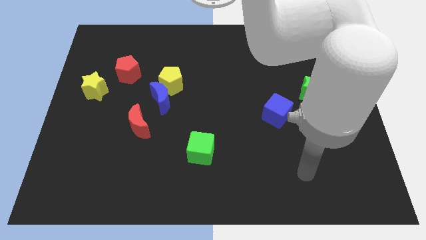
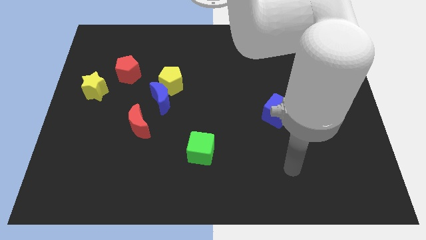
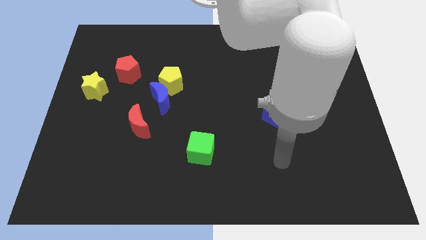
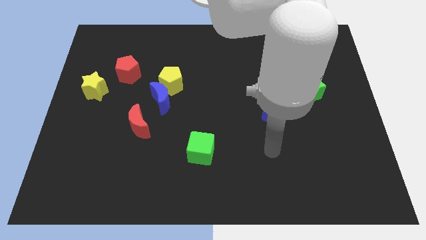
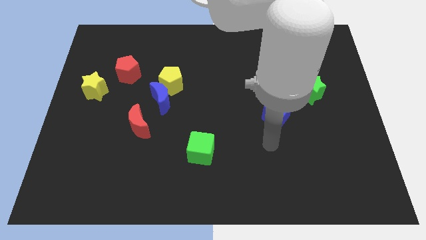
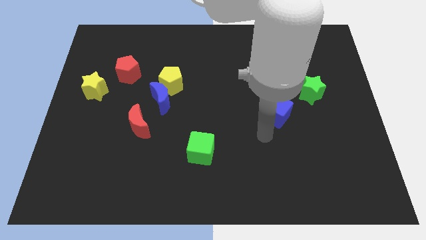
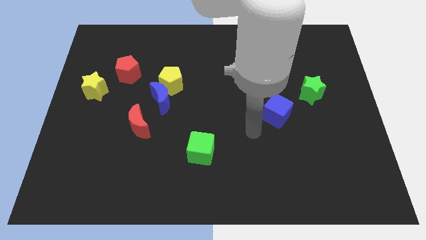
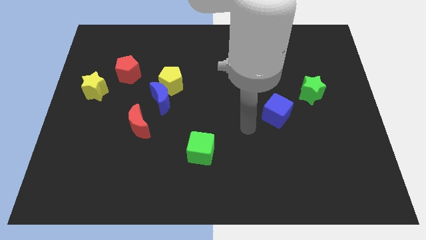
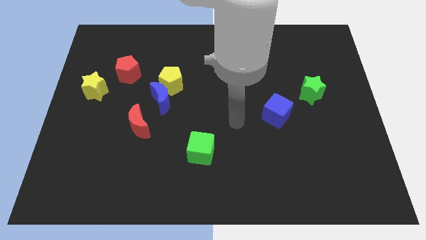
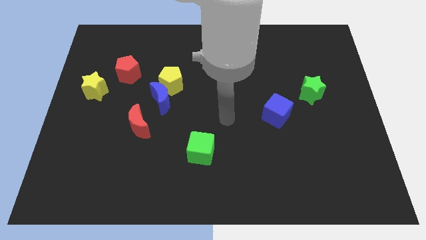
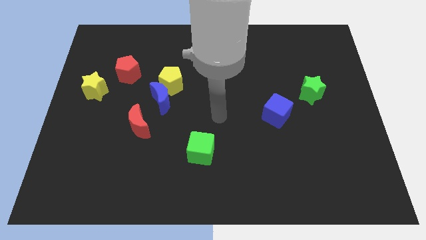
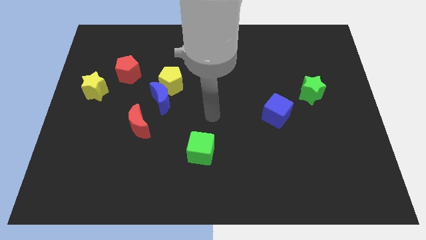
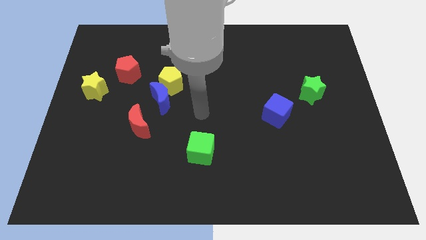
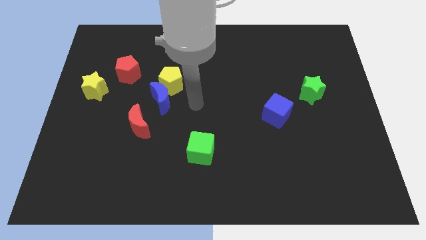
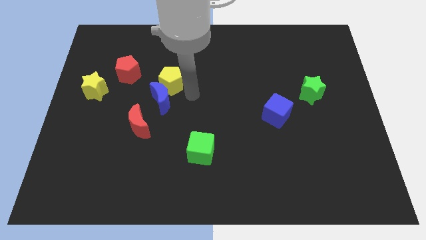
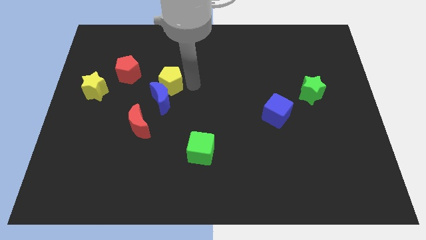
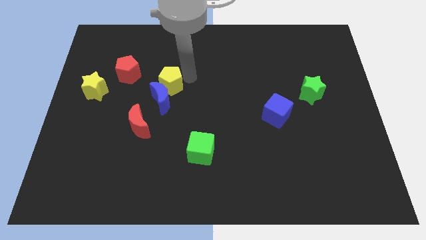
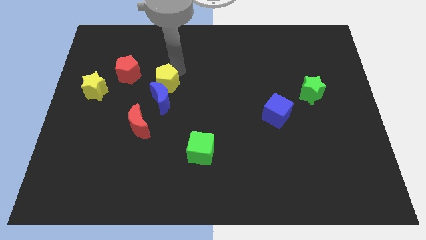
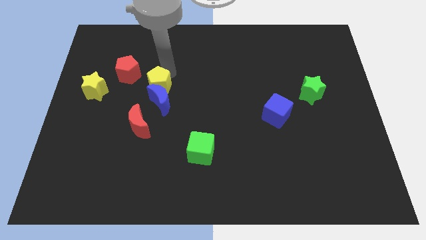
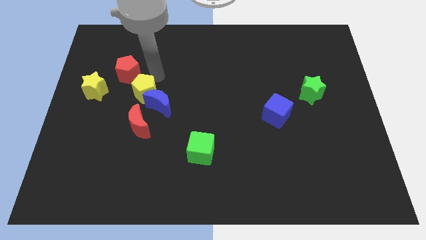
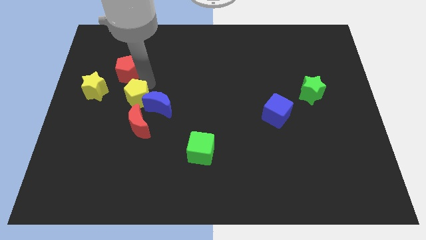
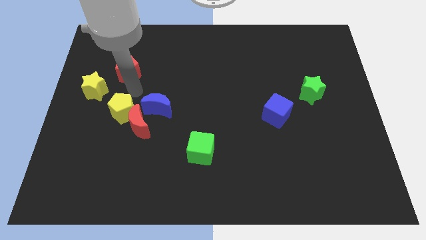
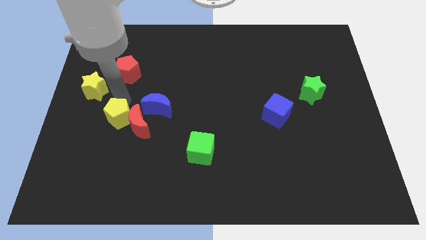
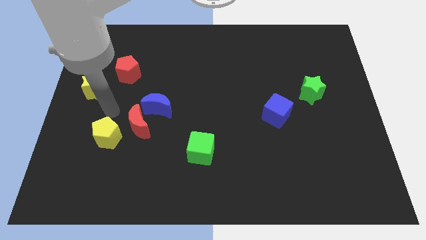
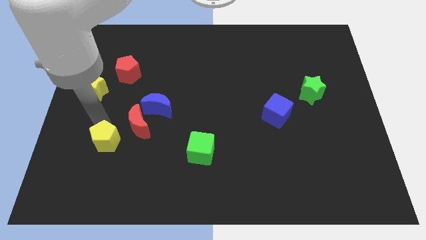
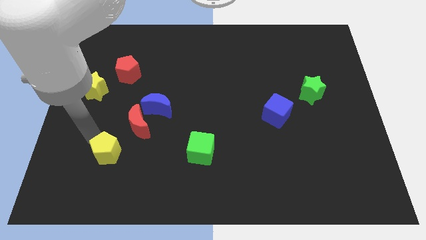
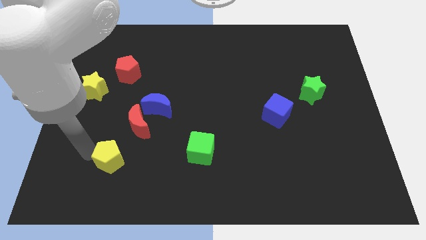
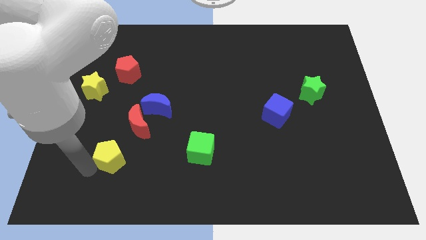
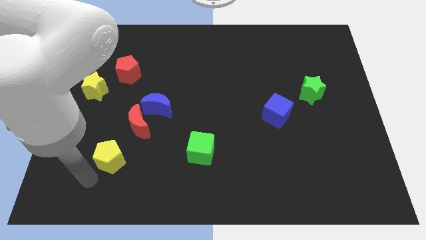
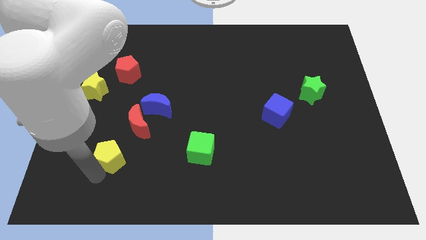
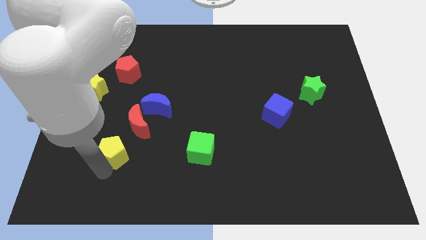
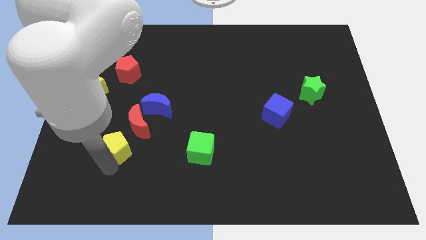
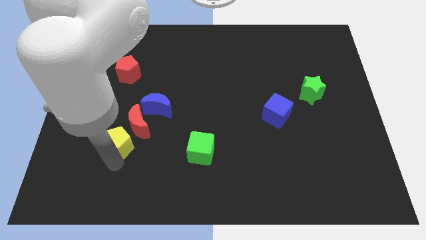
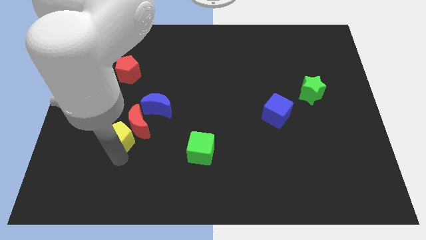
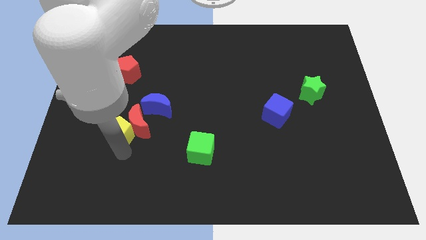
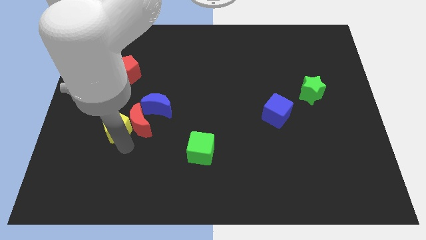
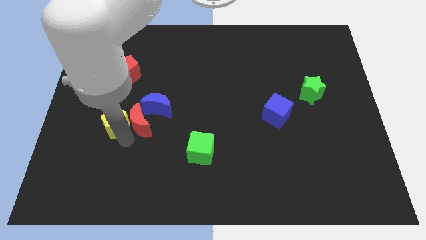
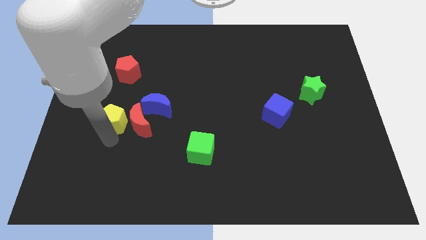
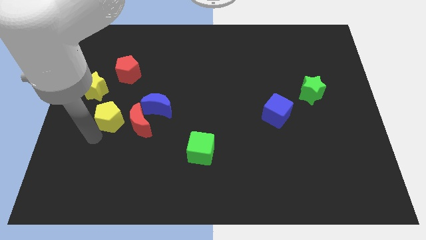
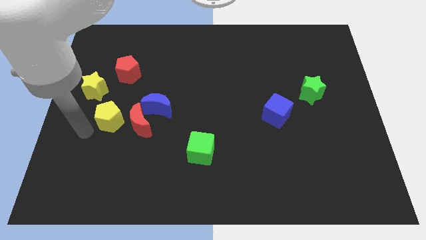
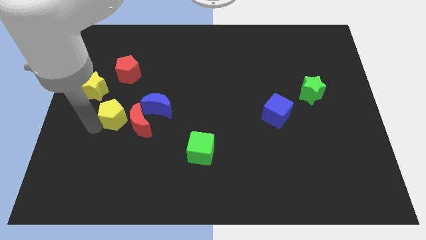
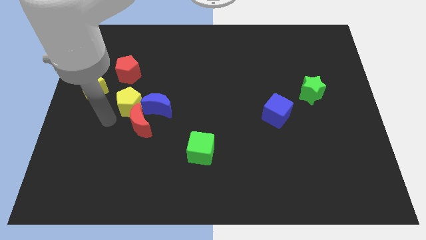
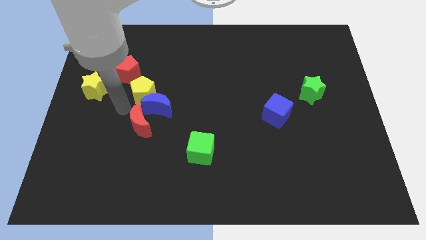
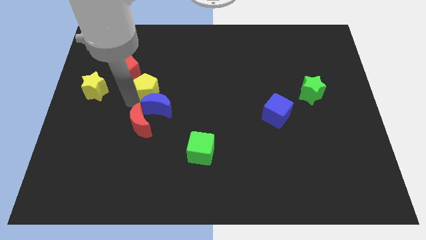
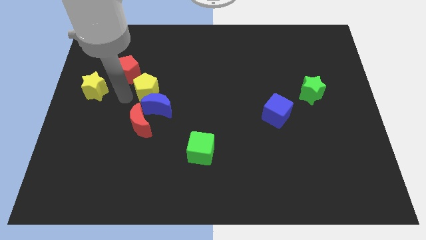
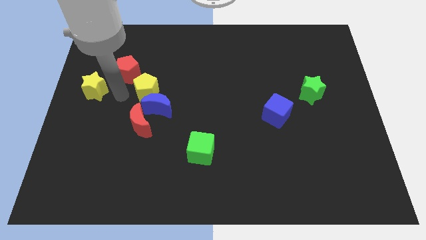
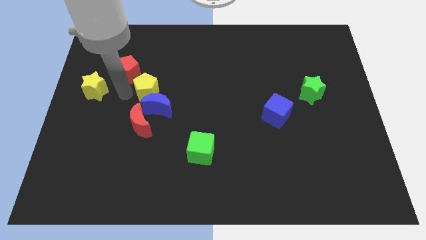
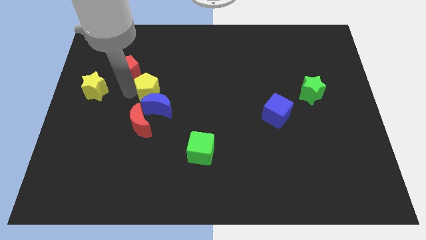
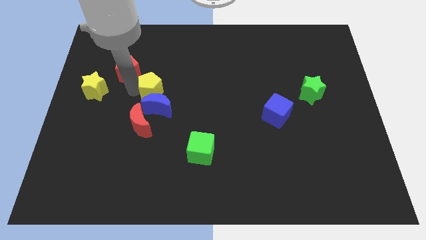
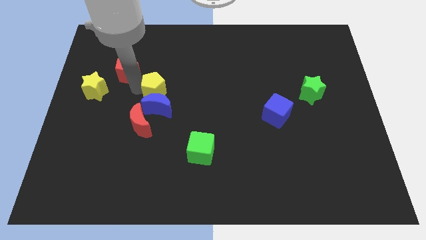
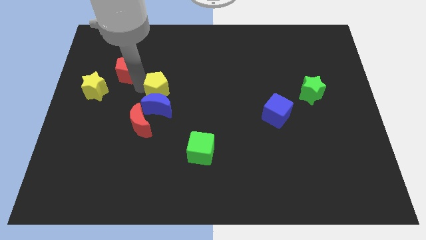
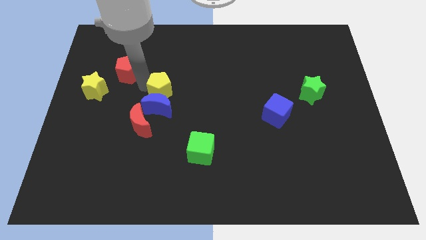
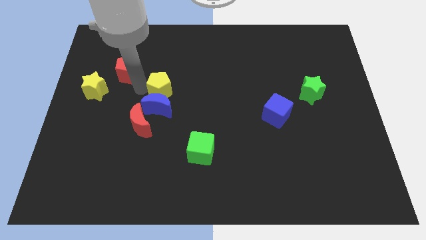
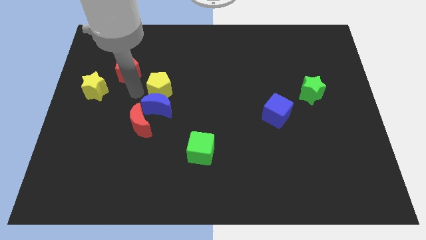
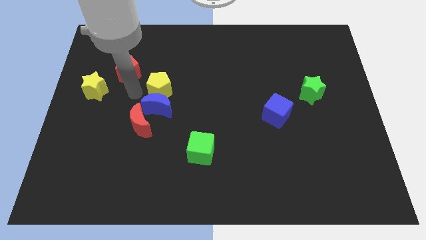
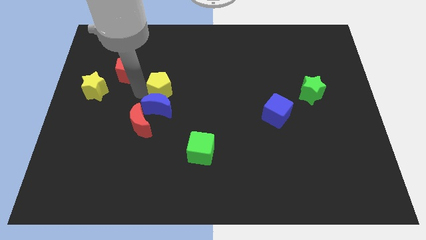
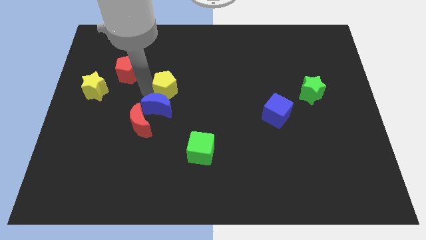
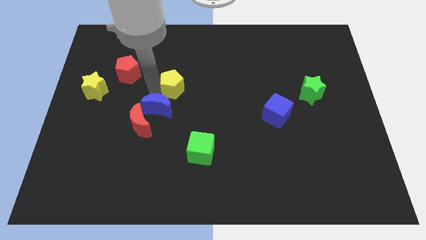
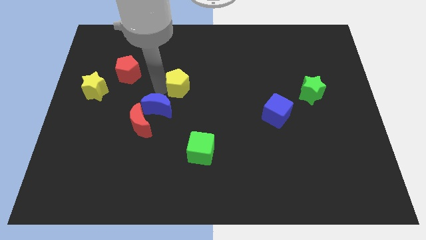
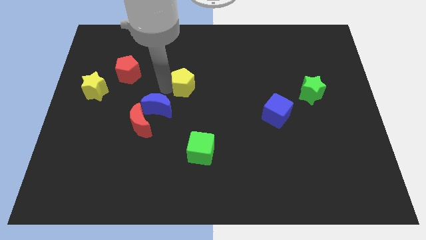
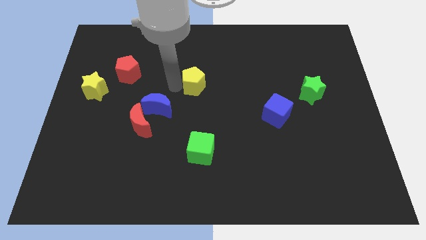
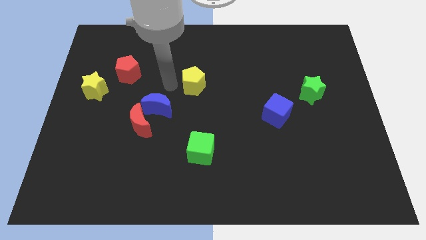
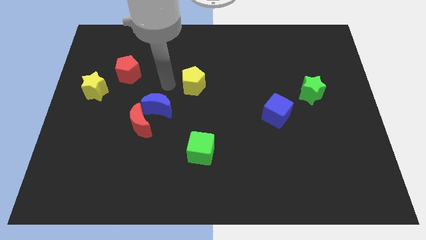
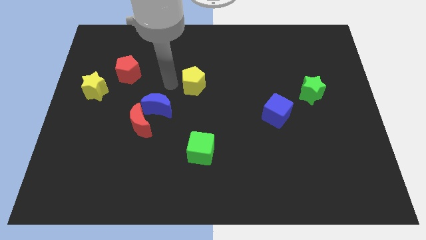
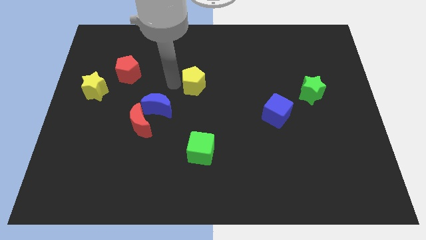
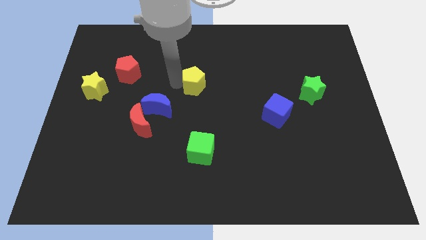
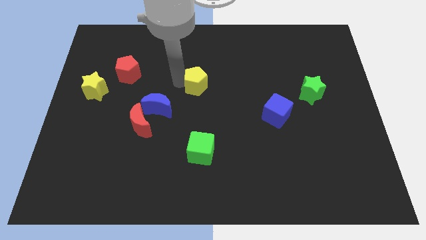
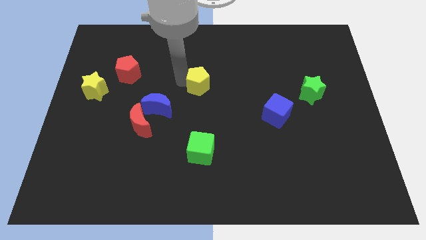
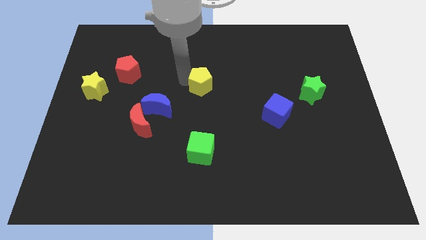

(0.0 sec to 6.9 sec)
slightly move the yellow pentagon right

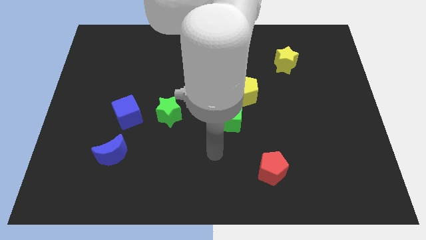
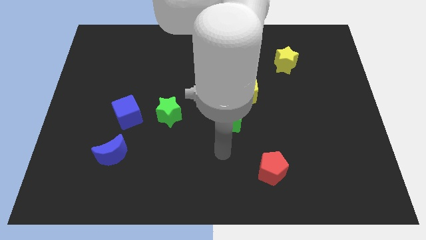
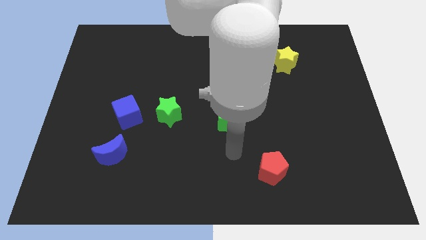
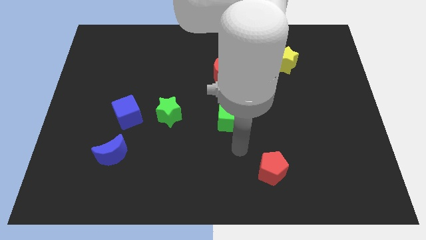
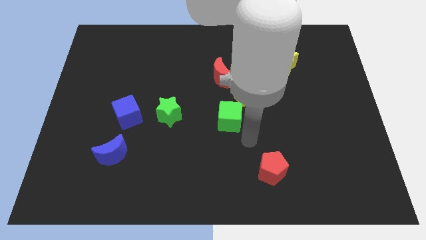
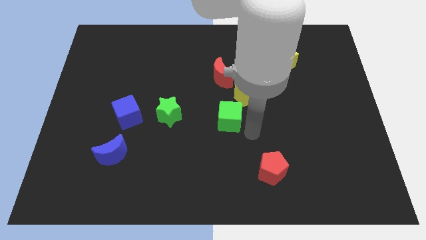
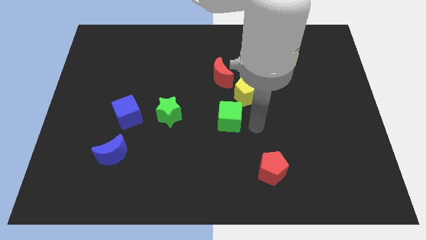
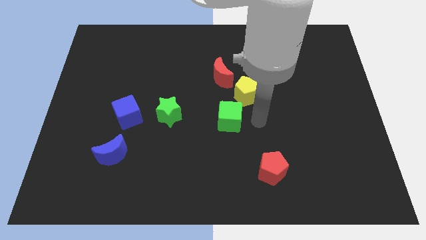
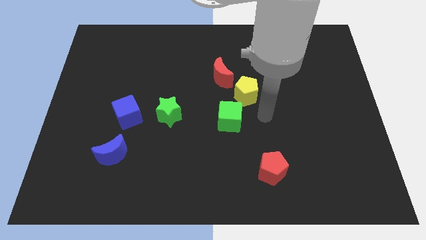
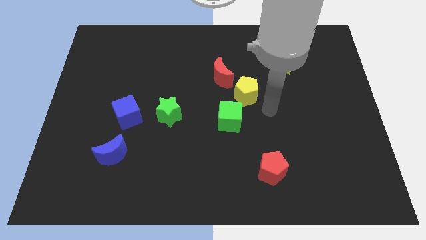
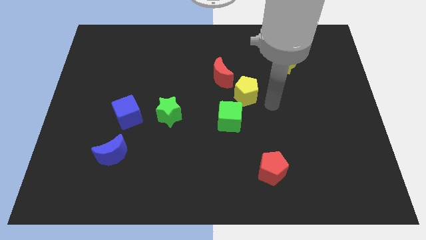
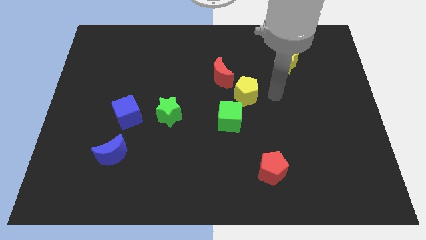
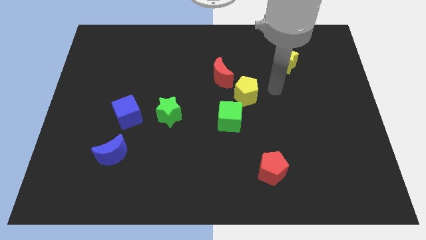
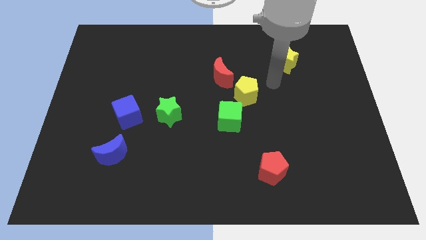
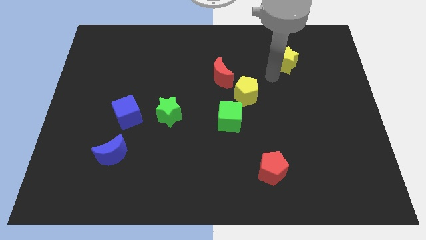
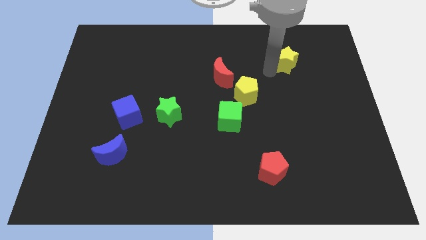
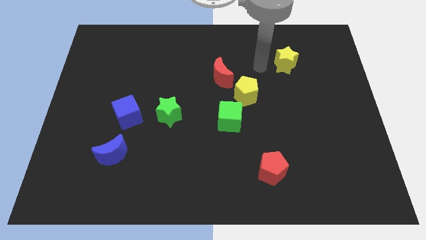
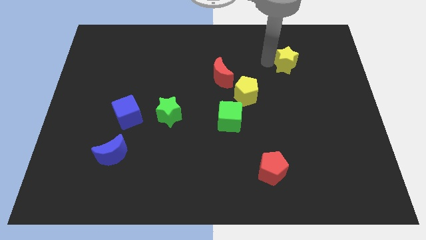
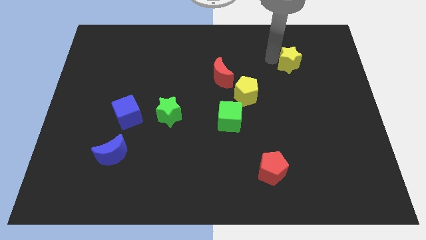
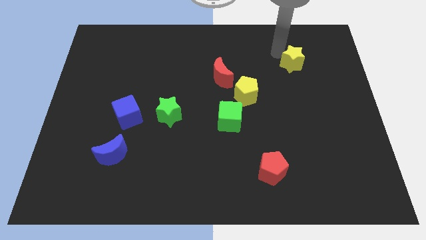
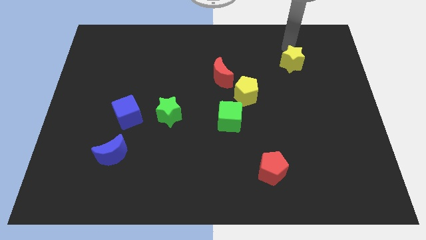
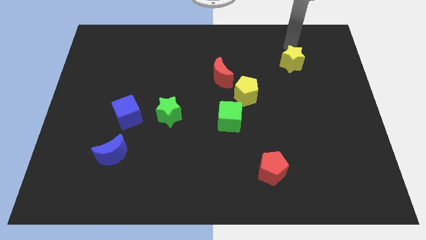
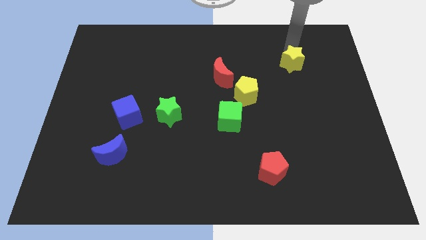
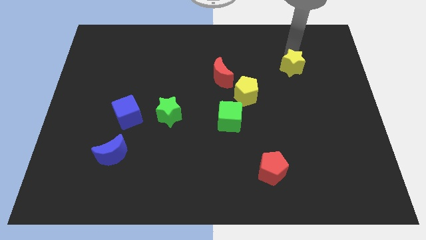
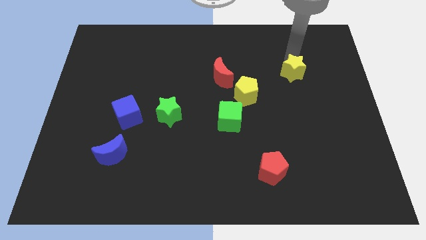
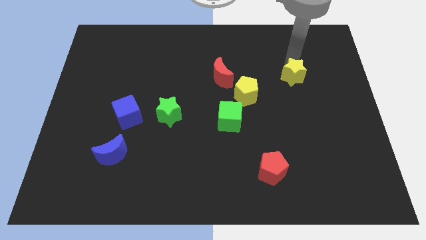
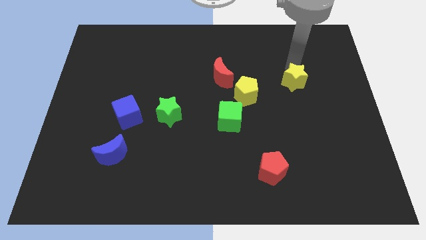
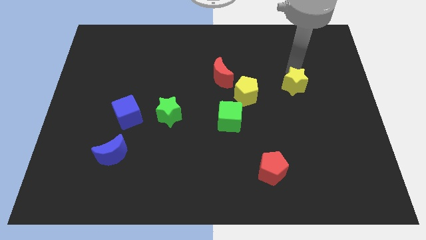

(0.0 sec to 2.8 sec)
slide the yellow star downwards somewhat
